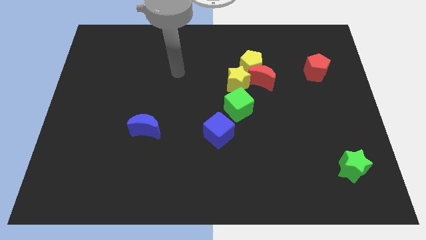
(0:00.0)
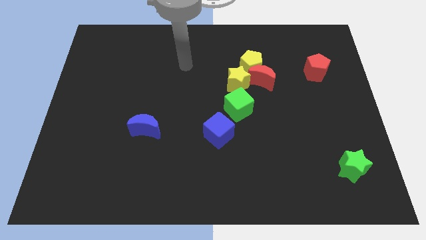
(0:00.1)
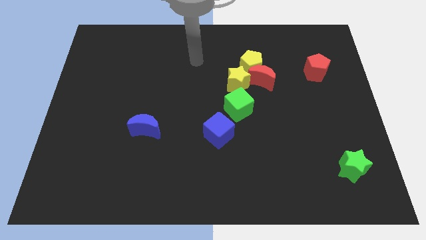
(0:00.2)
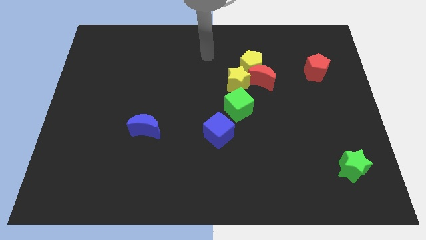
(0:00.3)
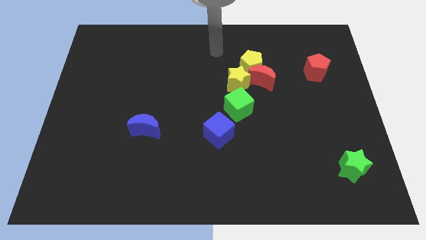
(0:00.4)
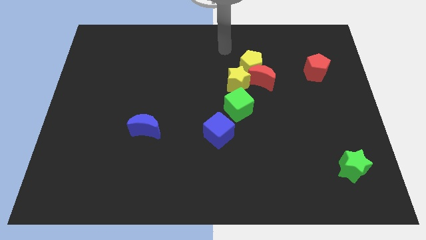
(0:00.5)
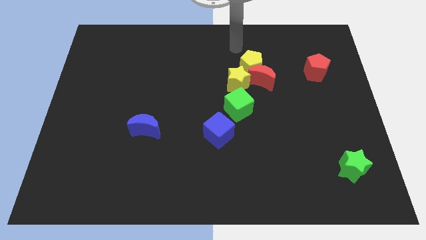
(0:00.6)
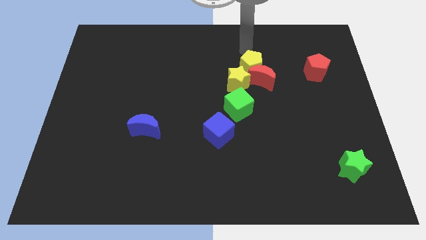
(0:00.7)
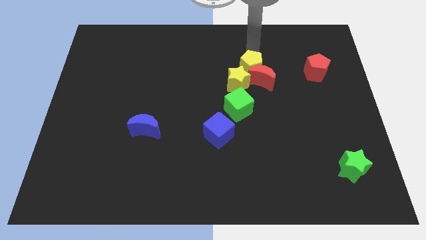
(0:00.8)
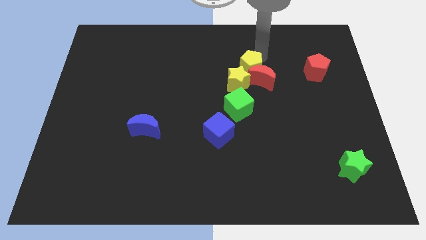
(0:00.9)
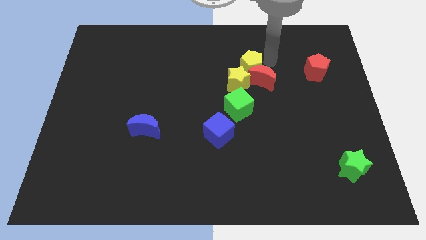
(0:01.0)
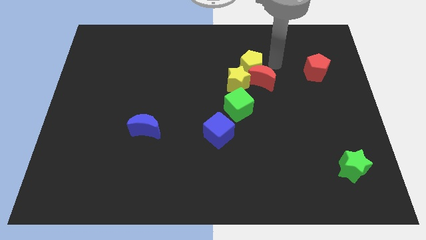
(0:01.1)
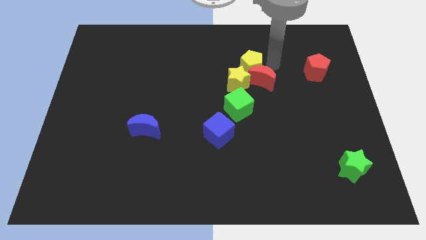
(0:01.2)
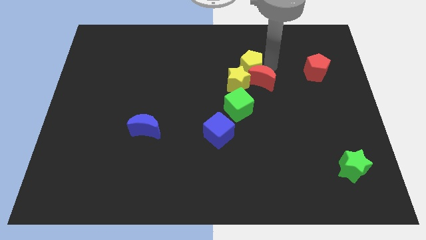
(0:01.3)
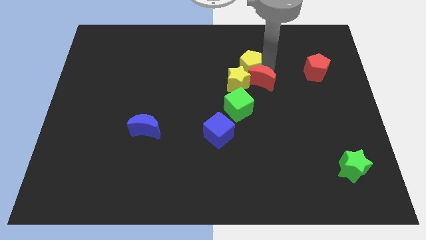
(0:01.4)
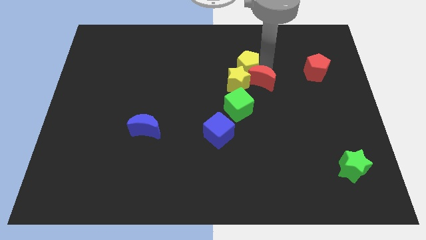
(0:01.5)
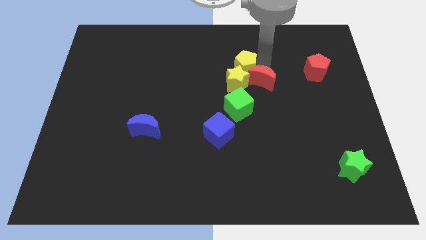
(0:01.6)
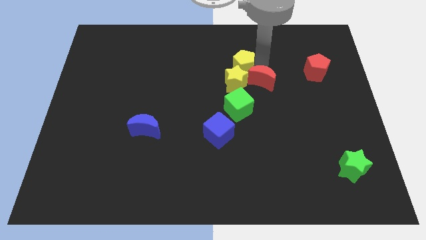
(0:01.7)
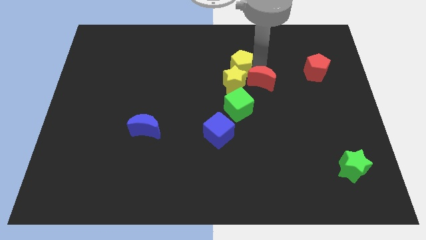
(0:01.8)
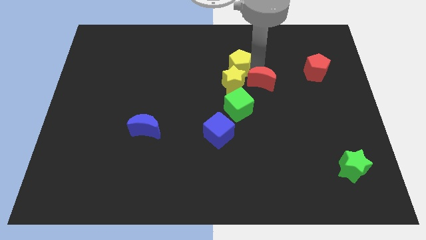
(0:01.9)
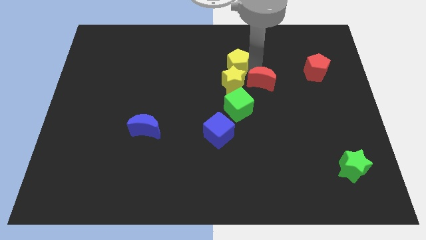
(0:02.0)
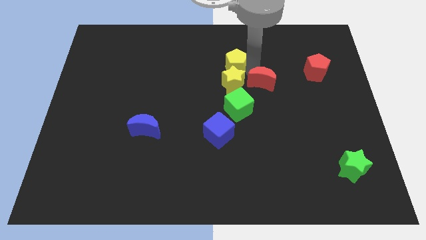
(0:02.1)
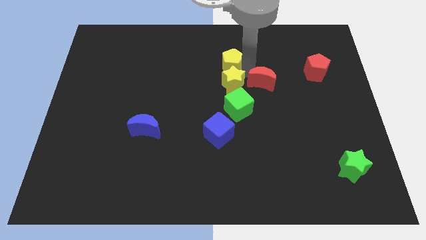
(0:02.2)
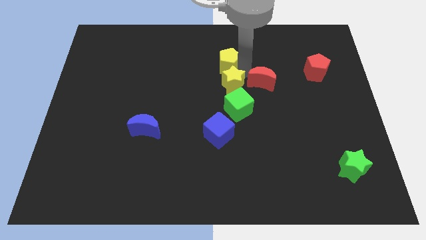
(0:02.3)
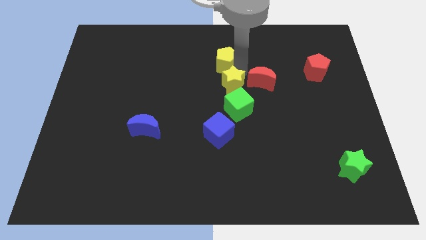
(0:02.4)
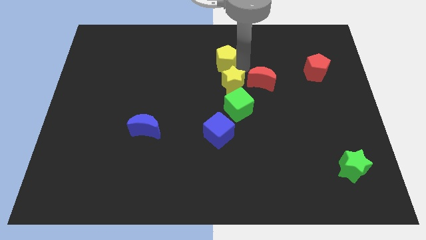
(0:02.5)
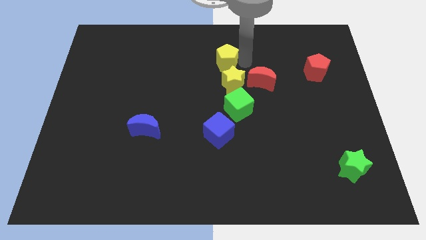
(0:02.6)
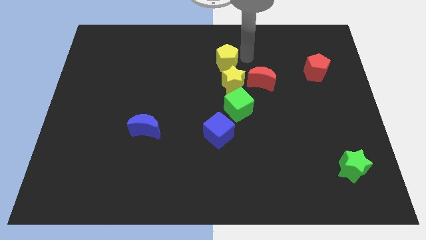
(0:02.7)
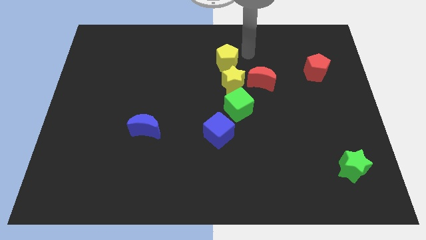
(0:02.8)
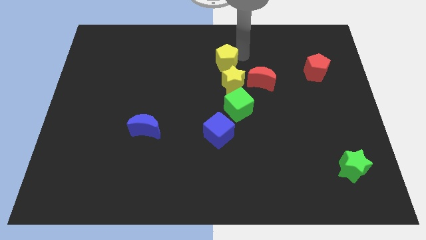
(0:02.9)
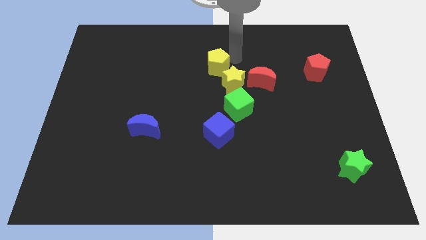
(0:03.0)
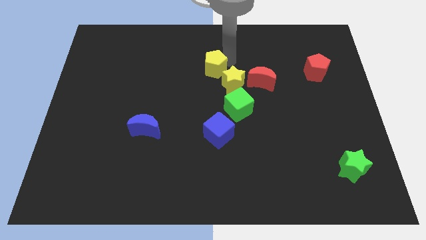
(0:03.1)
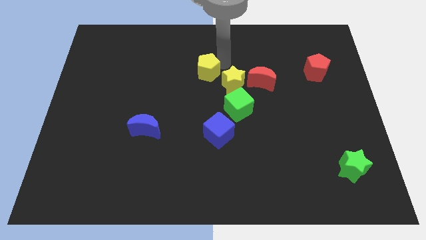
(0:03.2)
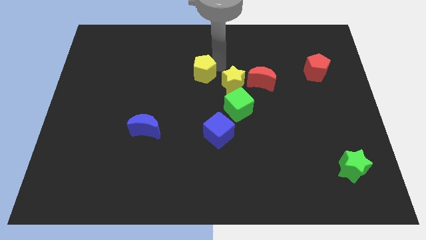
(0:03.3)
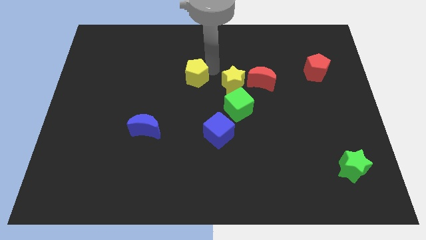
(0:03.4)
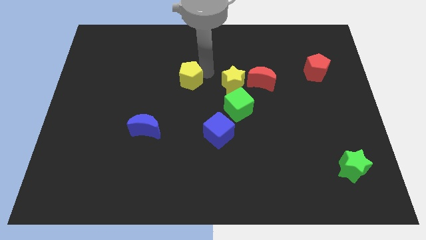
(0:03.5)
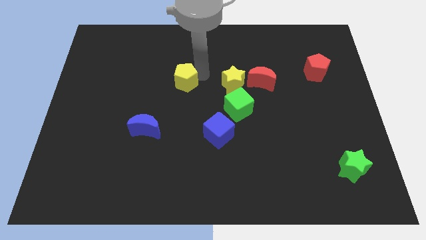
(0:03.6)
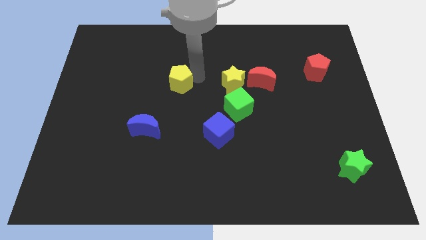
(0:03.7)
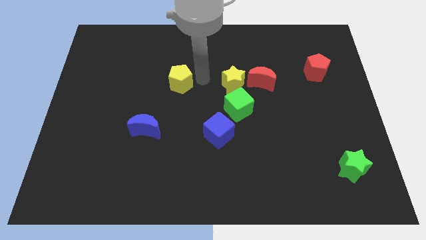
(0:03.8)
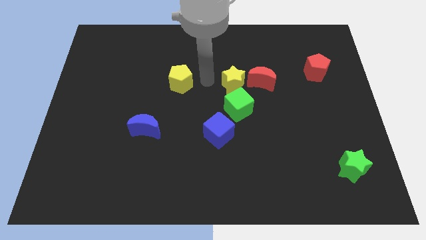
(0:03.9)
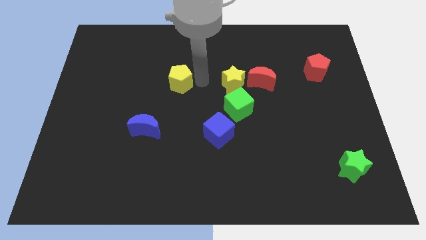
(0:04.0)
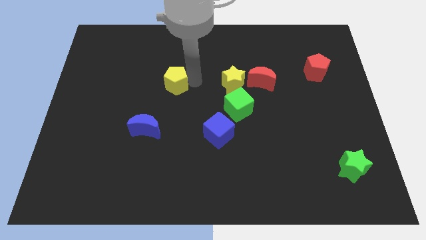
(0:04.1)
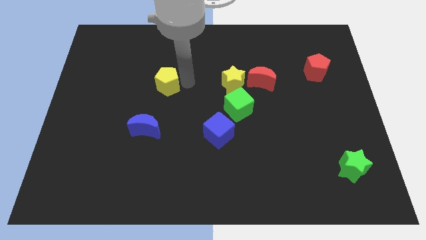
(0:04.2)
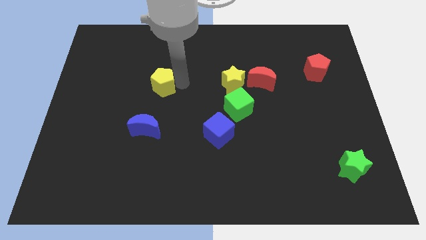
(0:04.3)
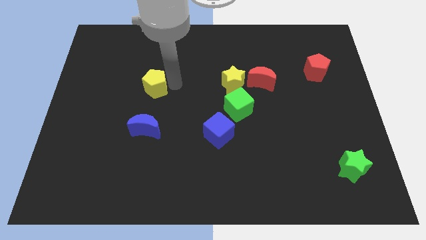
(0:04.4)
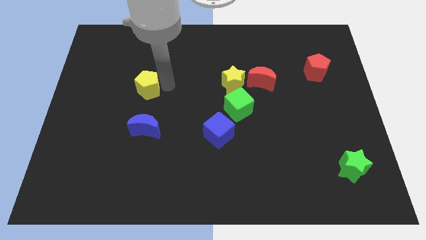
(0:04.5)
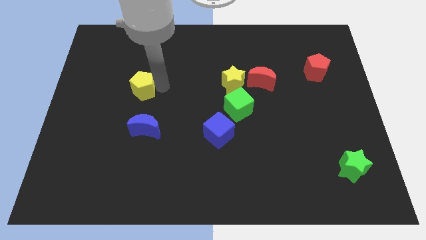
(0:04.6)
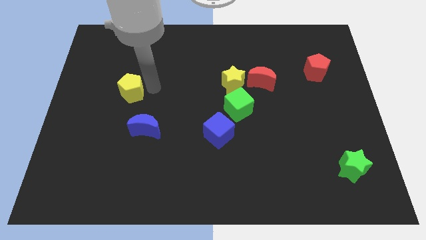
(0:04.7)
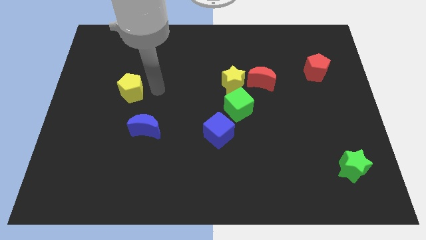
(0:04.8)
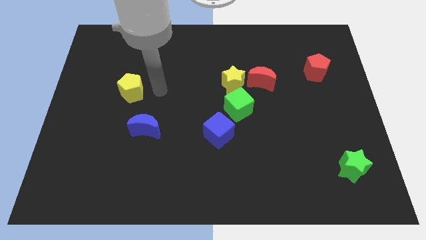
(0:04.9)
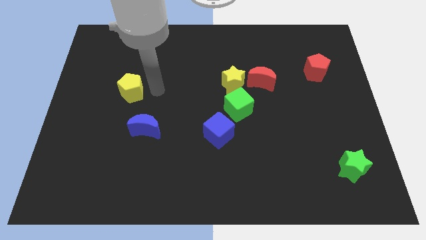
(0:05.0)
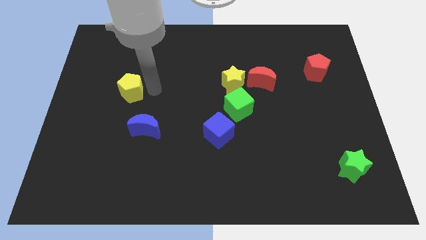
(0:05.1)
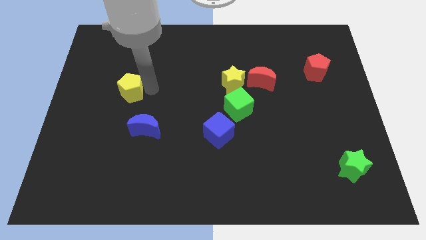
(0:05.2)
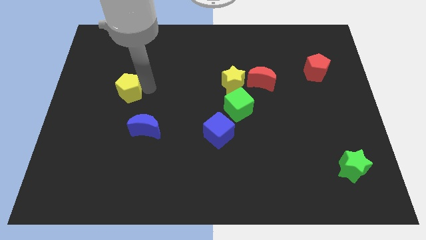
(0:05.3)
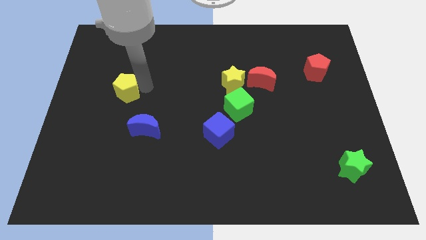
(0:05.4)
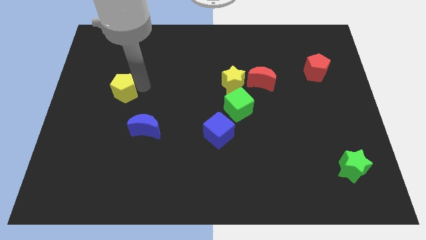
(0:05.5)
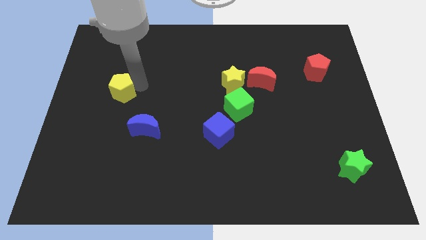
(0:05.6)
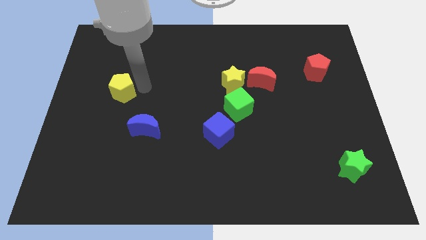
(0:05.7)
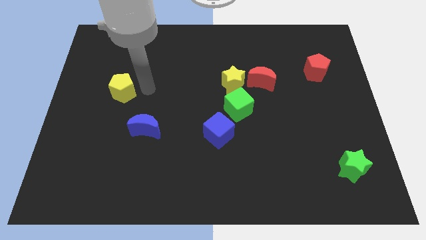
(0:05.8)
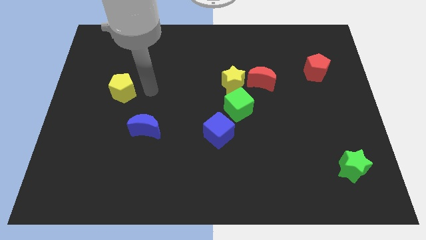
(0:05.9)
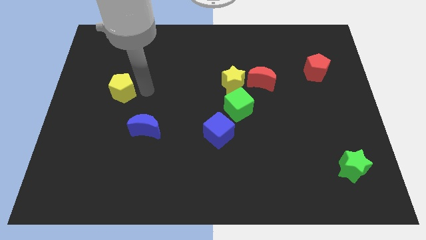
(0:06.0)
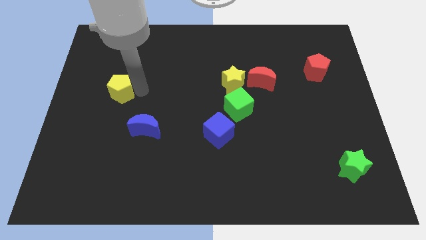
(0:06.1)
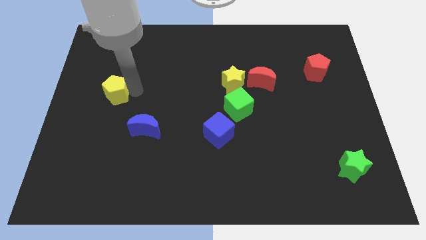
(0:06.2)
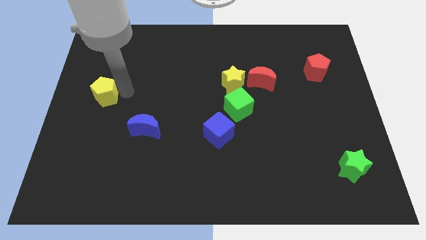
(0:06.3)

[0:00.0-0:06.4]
slide the yellow pentagon to the center left

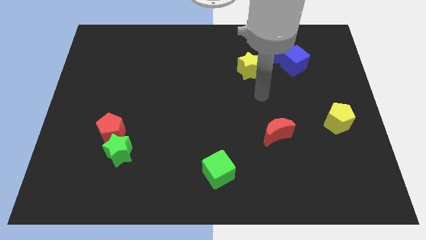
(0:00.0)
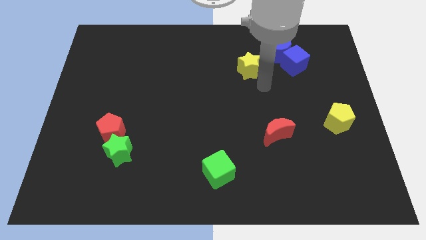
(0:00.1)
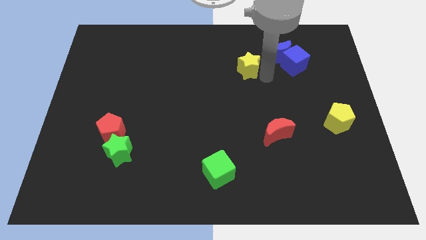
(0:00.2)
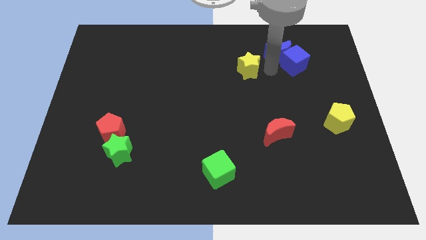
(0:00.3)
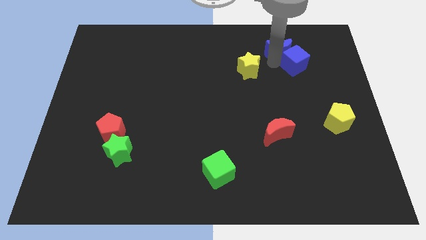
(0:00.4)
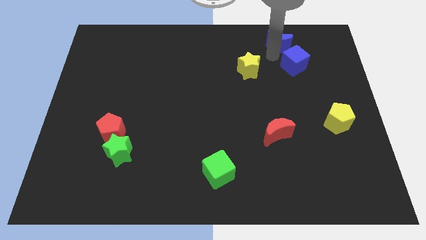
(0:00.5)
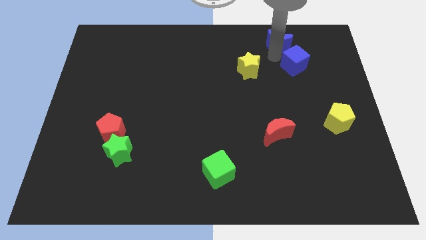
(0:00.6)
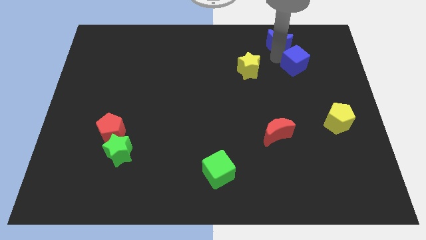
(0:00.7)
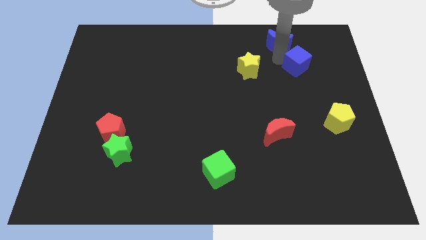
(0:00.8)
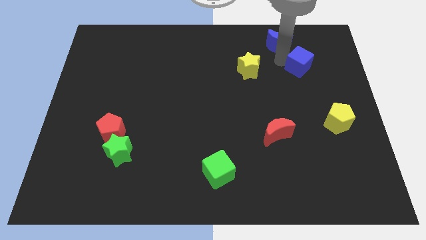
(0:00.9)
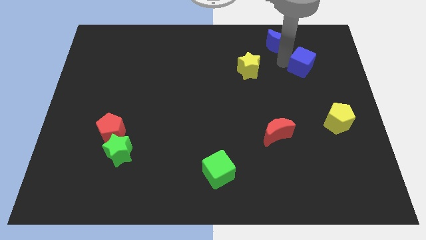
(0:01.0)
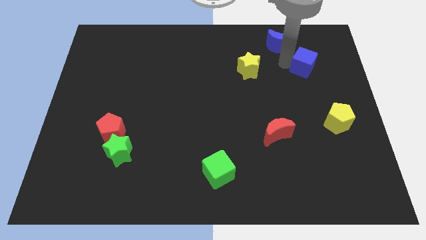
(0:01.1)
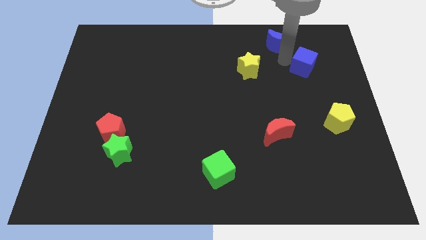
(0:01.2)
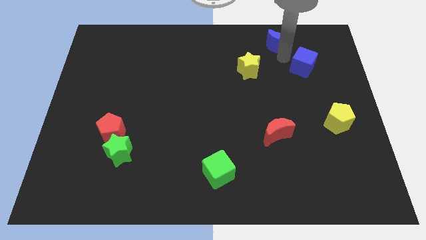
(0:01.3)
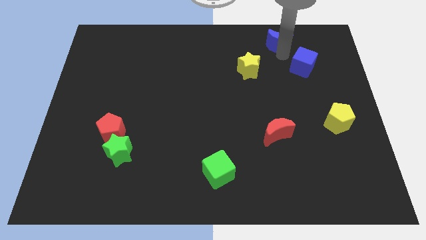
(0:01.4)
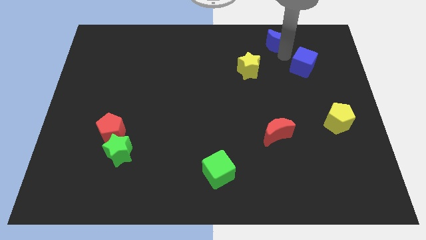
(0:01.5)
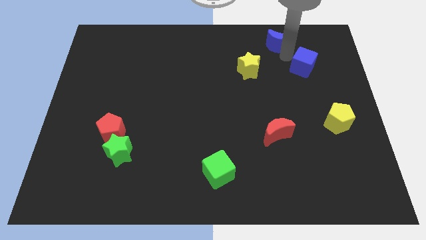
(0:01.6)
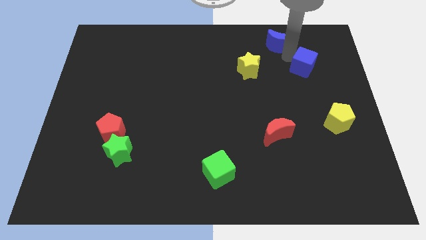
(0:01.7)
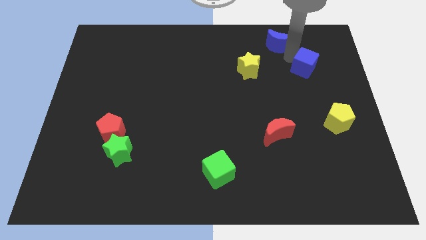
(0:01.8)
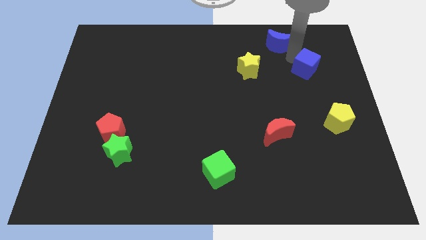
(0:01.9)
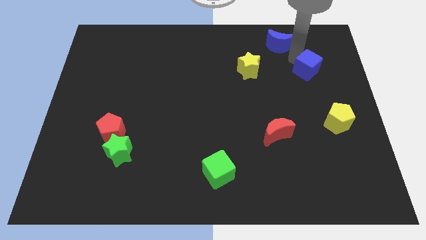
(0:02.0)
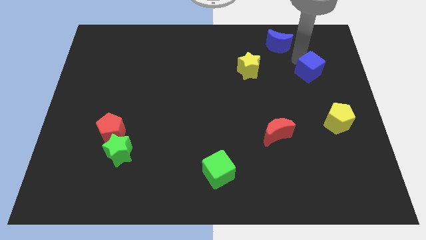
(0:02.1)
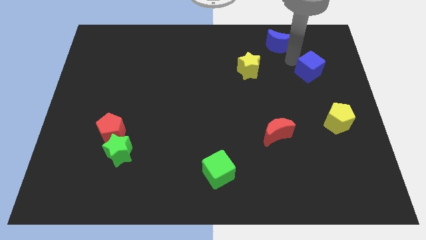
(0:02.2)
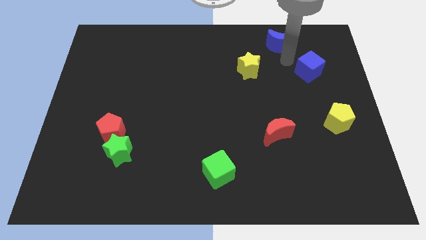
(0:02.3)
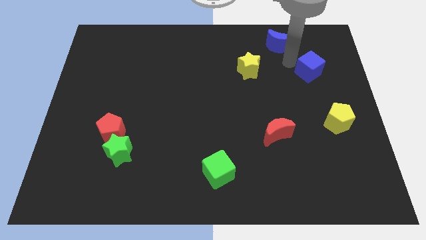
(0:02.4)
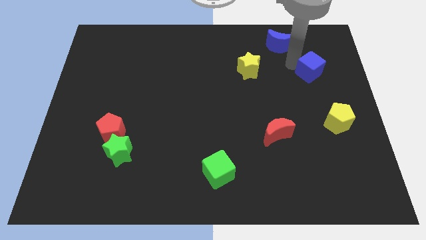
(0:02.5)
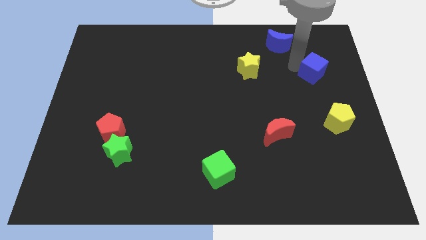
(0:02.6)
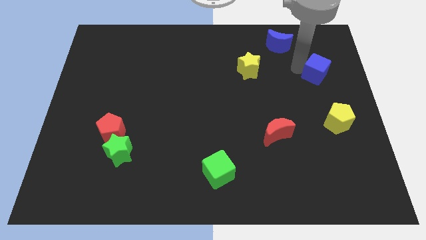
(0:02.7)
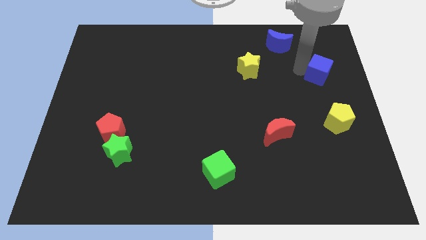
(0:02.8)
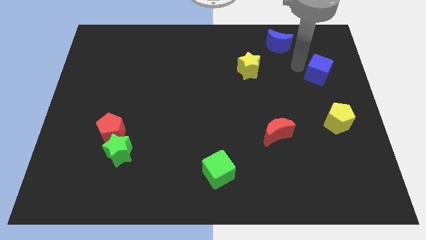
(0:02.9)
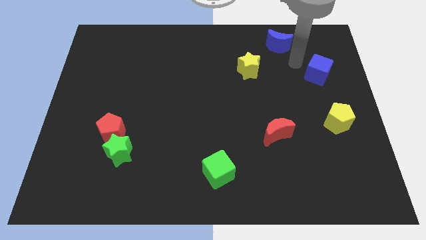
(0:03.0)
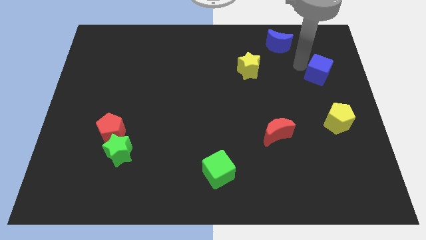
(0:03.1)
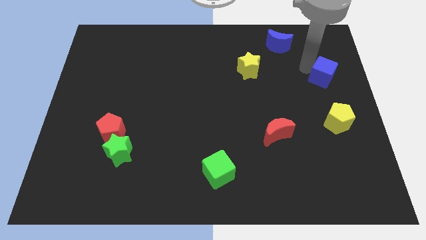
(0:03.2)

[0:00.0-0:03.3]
slide the blue cube to the right side
